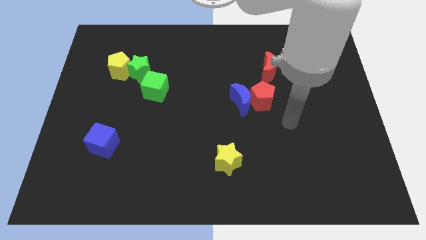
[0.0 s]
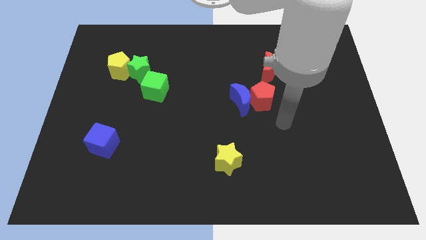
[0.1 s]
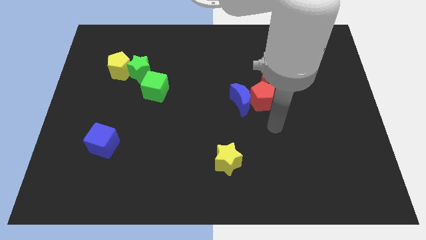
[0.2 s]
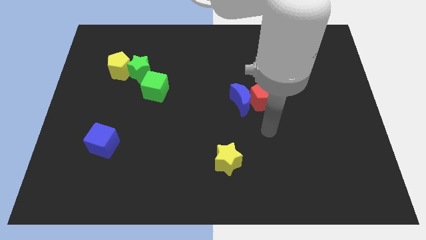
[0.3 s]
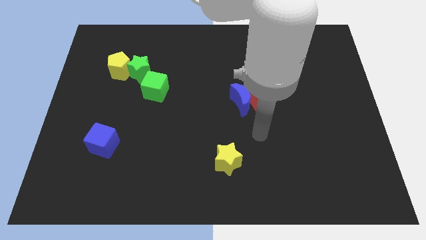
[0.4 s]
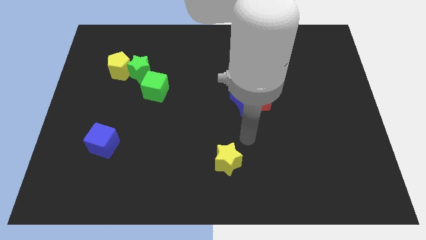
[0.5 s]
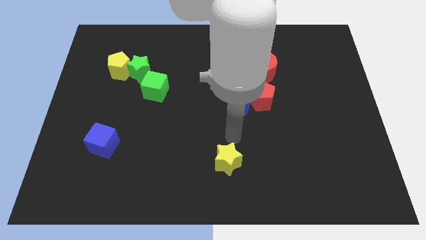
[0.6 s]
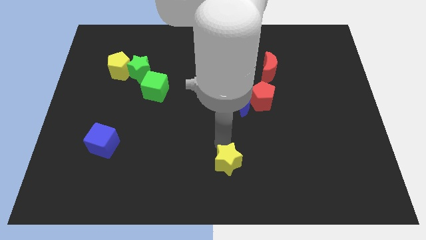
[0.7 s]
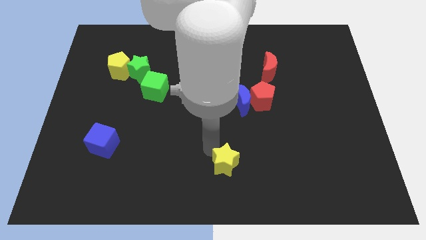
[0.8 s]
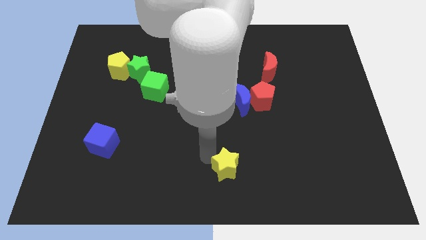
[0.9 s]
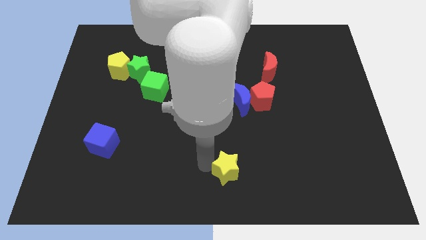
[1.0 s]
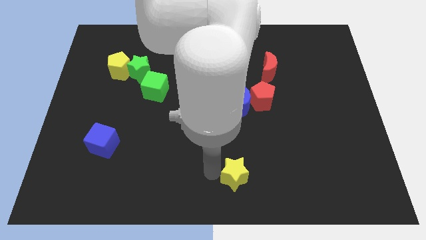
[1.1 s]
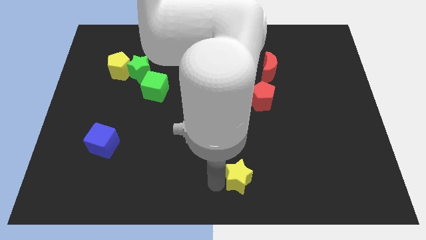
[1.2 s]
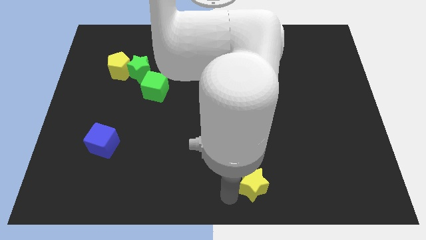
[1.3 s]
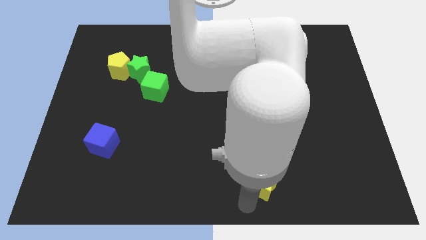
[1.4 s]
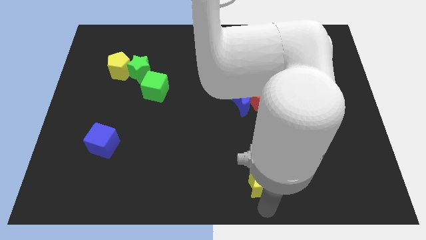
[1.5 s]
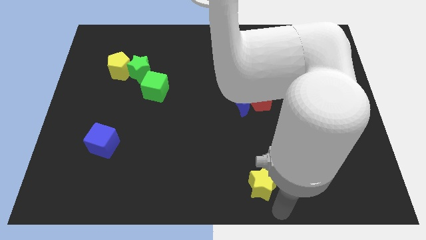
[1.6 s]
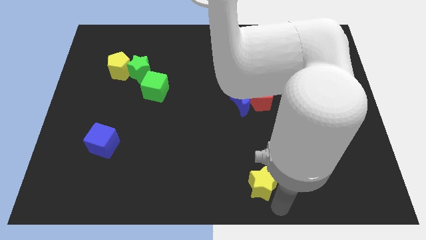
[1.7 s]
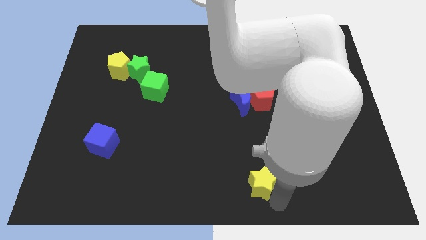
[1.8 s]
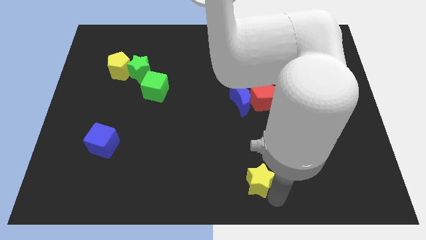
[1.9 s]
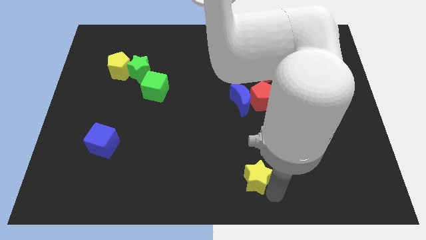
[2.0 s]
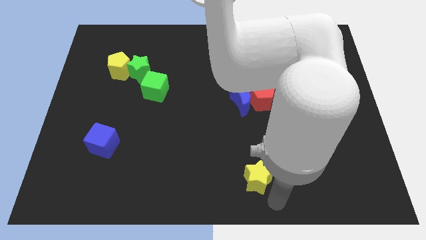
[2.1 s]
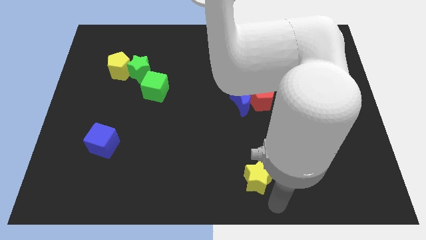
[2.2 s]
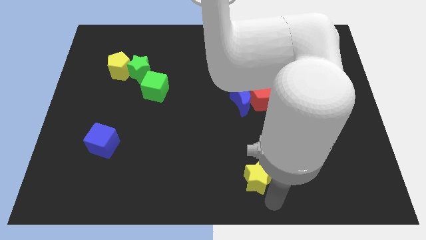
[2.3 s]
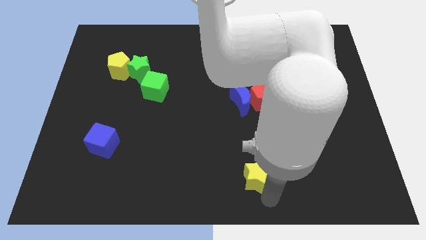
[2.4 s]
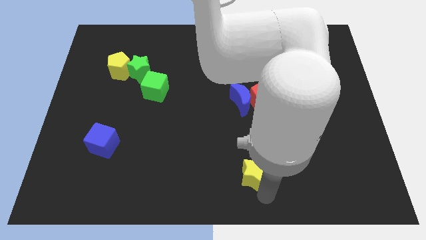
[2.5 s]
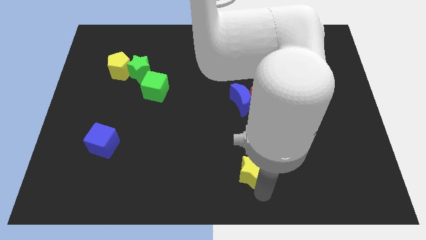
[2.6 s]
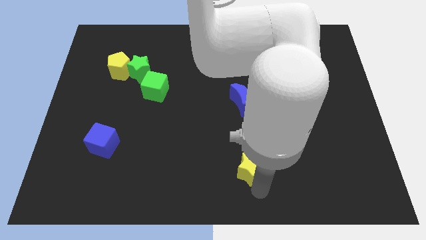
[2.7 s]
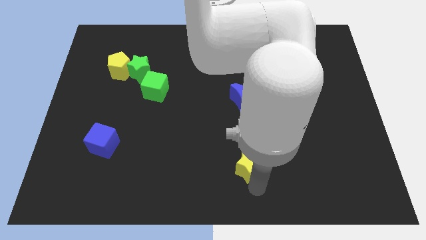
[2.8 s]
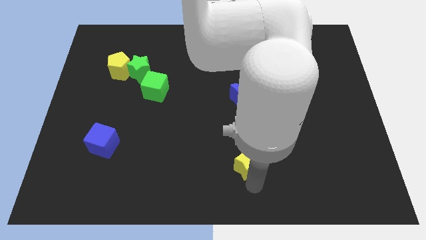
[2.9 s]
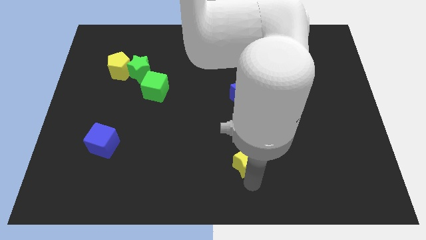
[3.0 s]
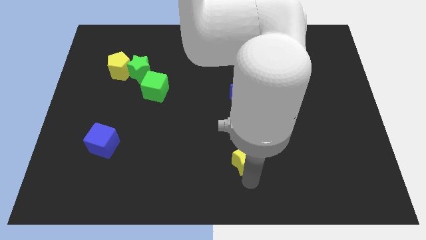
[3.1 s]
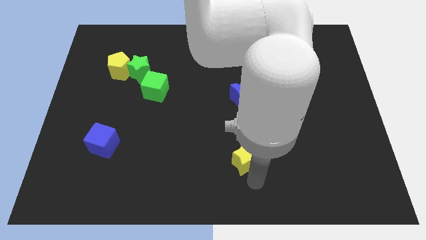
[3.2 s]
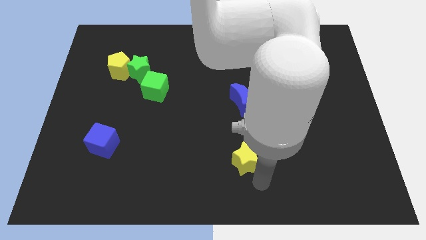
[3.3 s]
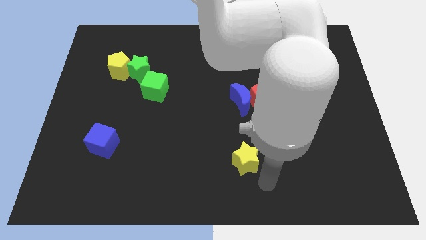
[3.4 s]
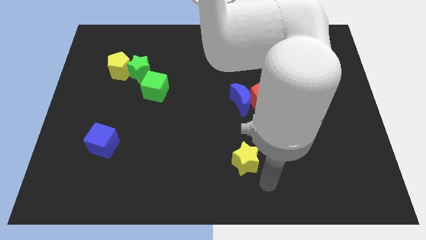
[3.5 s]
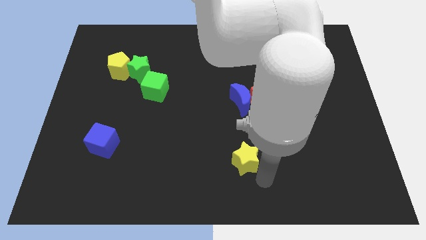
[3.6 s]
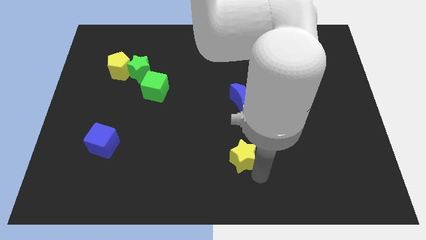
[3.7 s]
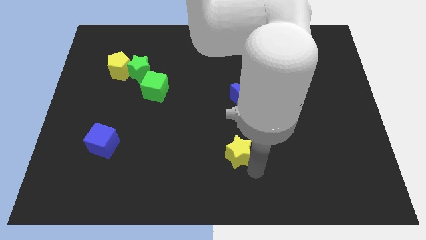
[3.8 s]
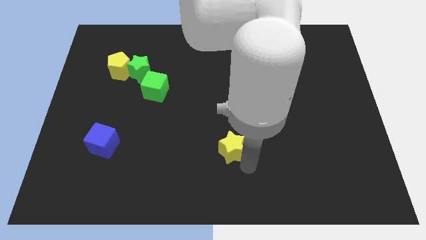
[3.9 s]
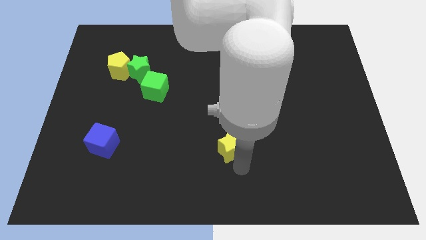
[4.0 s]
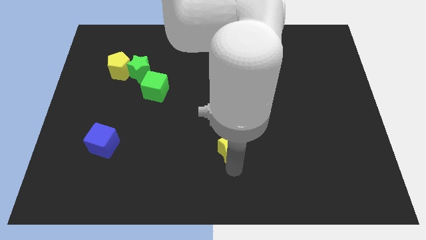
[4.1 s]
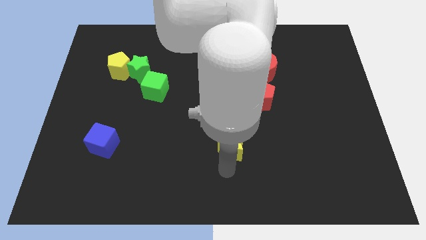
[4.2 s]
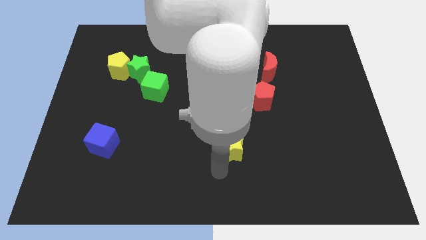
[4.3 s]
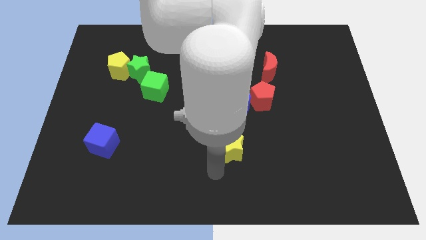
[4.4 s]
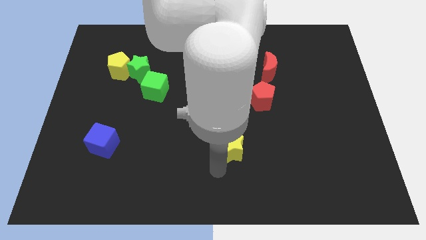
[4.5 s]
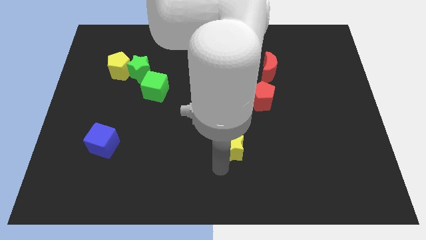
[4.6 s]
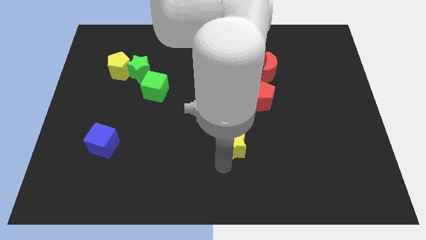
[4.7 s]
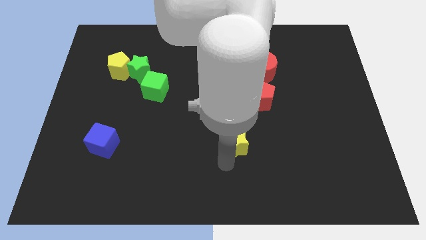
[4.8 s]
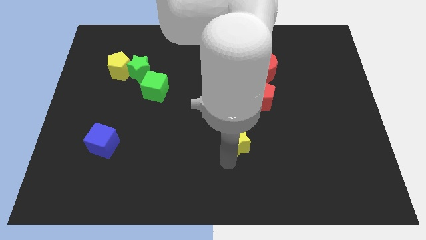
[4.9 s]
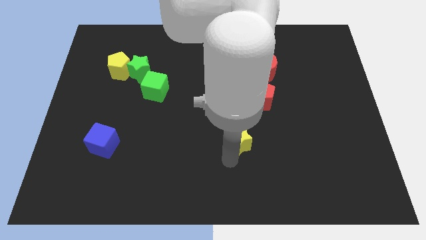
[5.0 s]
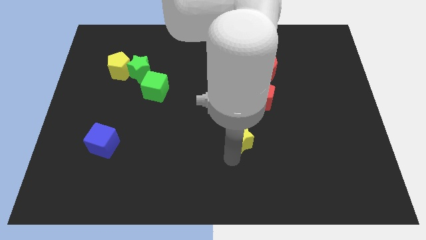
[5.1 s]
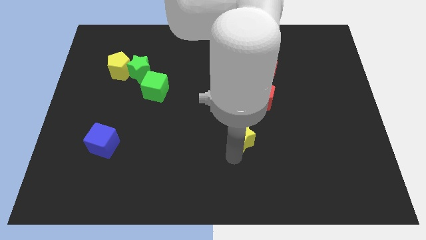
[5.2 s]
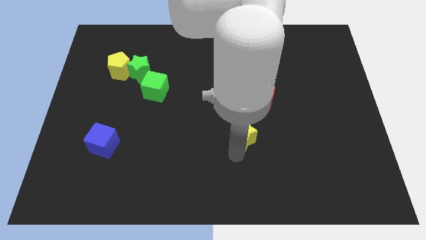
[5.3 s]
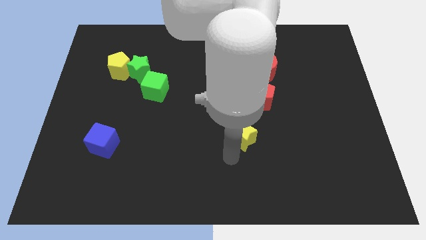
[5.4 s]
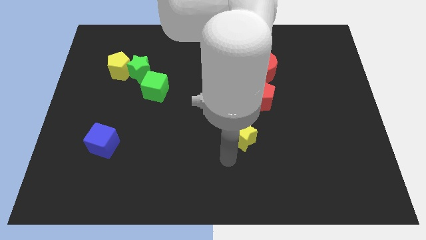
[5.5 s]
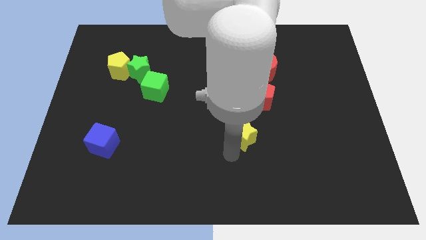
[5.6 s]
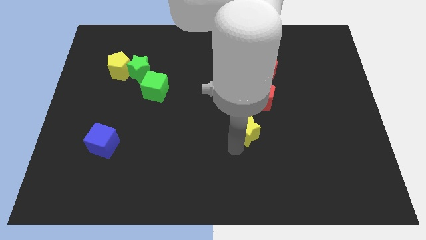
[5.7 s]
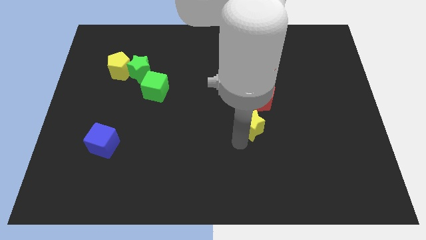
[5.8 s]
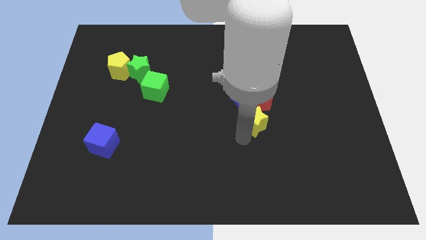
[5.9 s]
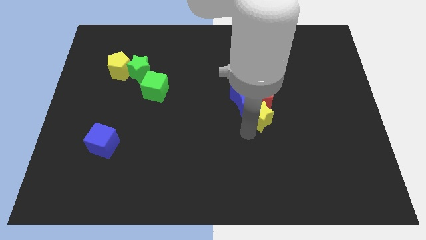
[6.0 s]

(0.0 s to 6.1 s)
push the yellow star to the red pentagon

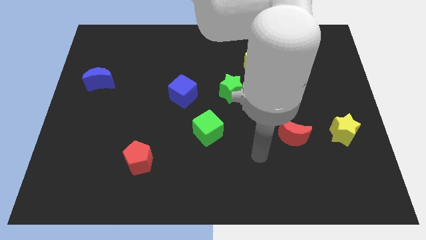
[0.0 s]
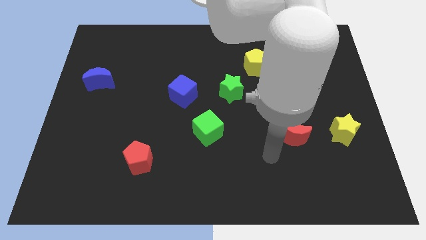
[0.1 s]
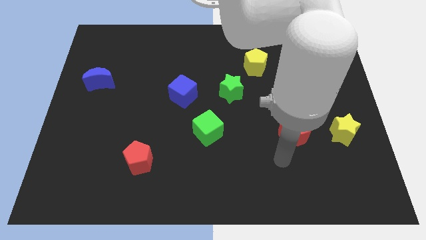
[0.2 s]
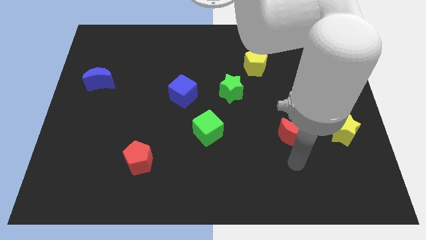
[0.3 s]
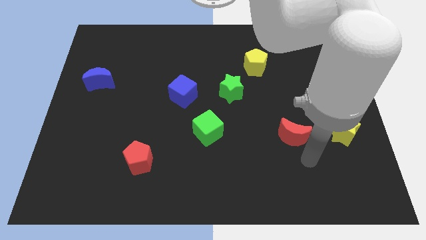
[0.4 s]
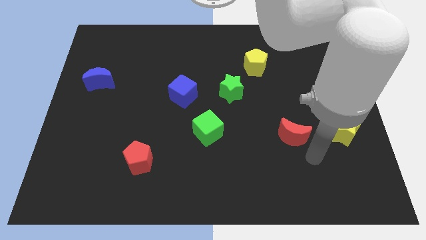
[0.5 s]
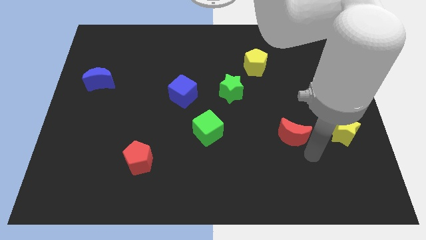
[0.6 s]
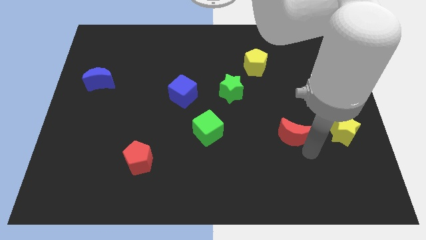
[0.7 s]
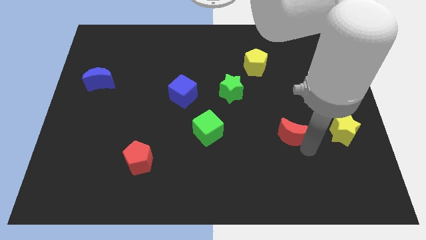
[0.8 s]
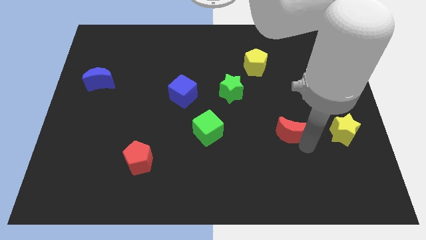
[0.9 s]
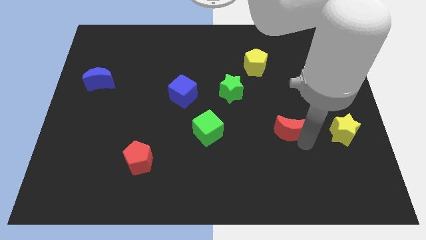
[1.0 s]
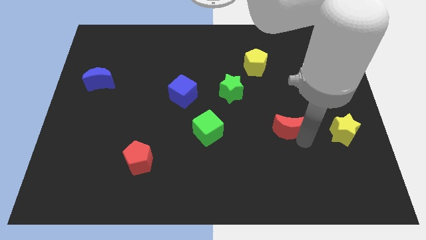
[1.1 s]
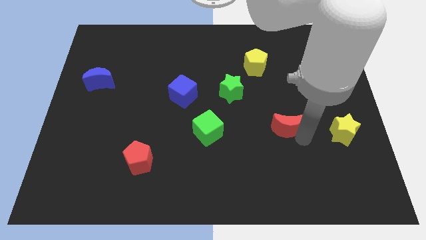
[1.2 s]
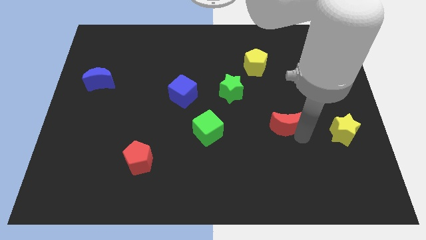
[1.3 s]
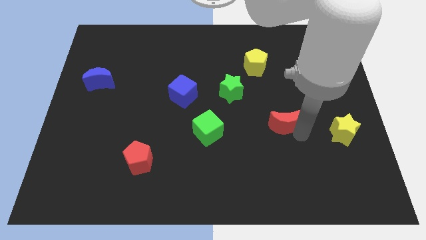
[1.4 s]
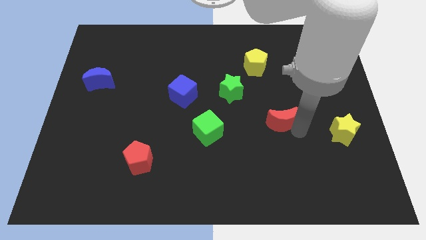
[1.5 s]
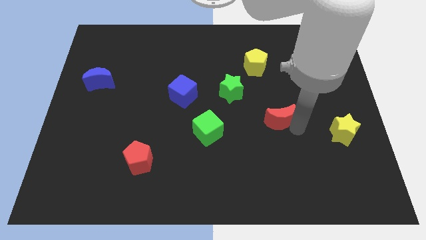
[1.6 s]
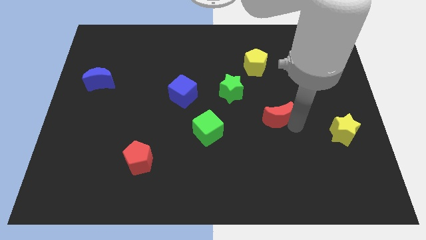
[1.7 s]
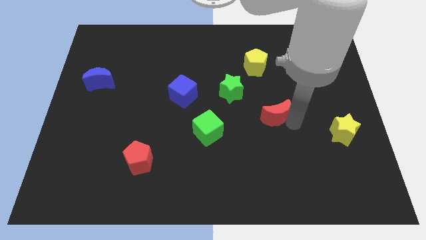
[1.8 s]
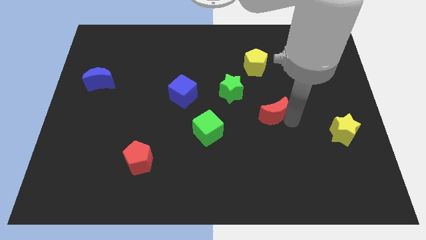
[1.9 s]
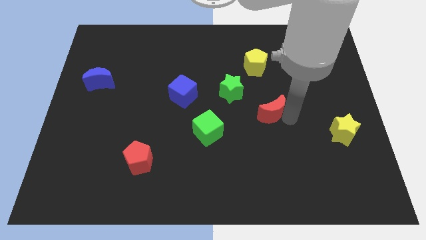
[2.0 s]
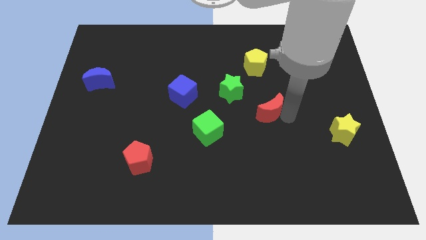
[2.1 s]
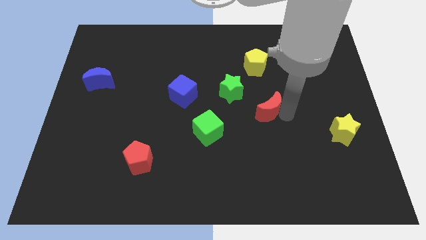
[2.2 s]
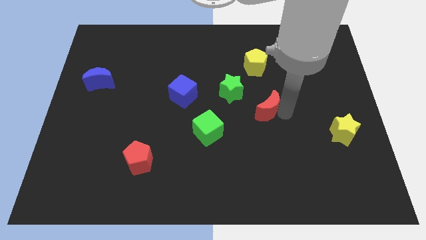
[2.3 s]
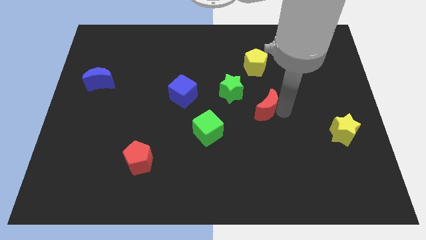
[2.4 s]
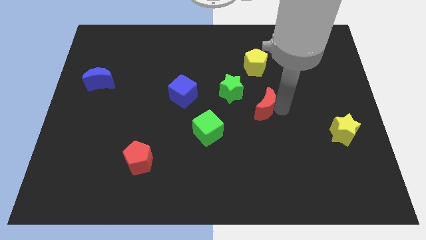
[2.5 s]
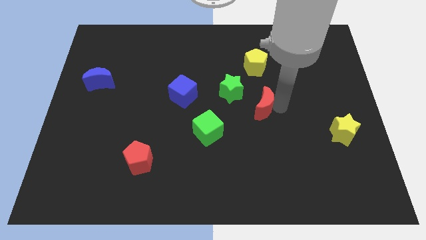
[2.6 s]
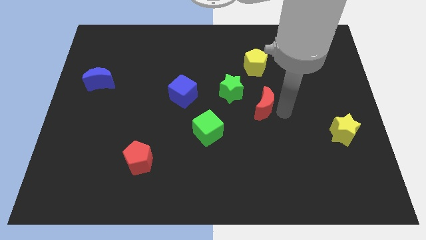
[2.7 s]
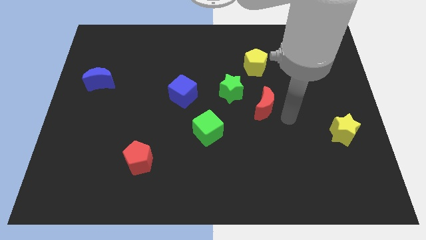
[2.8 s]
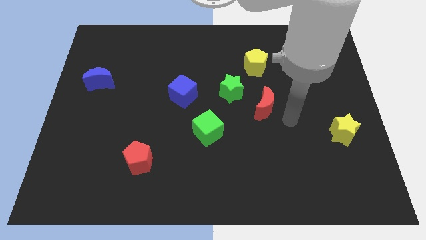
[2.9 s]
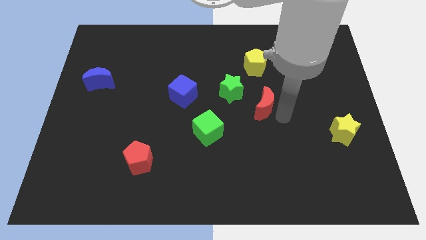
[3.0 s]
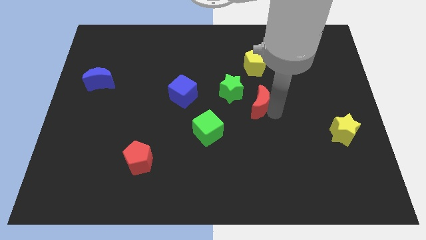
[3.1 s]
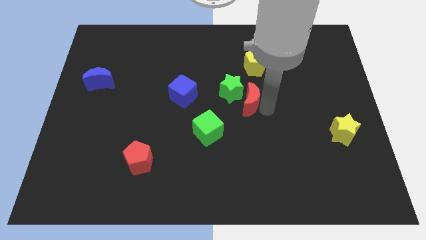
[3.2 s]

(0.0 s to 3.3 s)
slide the red moon towards the green star
